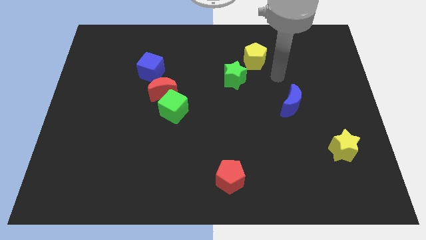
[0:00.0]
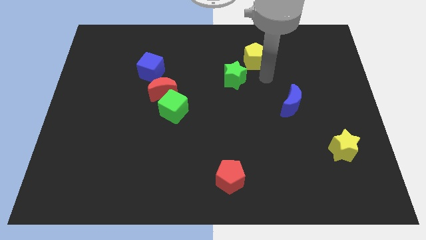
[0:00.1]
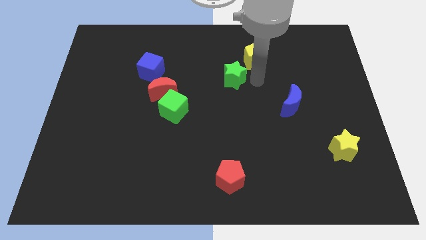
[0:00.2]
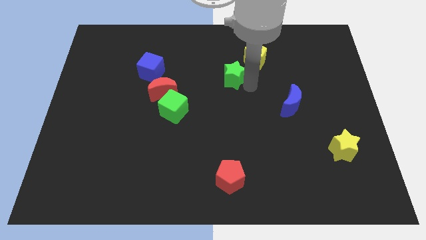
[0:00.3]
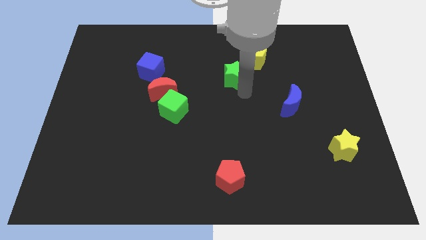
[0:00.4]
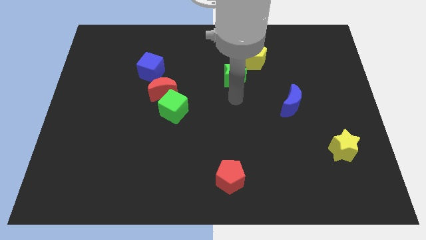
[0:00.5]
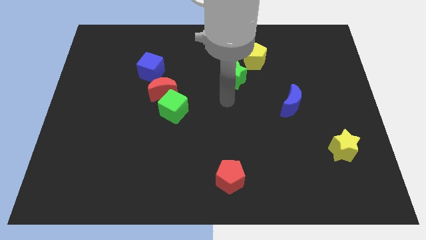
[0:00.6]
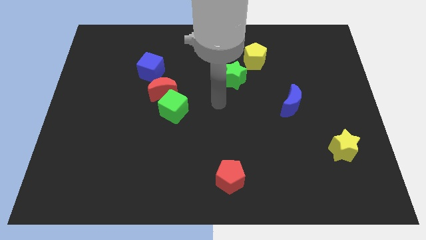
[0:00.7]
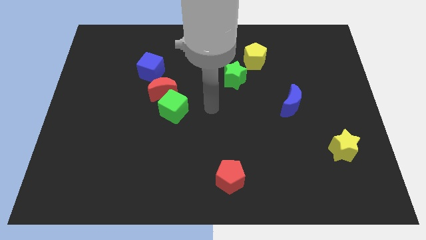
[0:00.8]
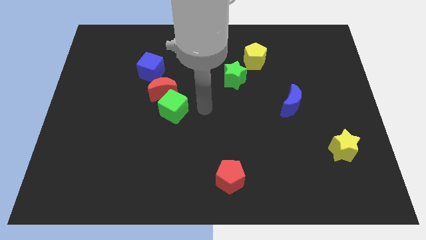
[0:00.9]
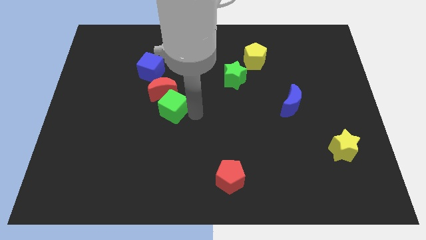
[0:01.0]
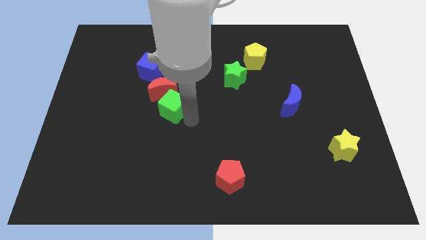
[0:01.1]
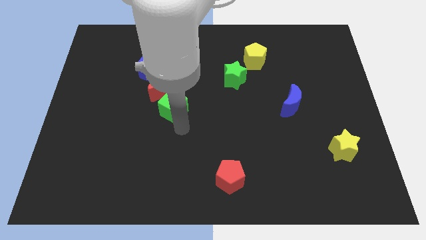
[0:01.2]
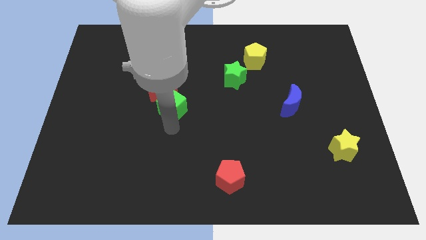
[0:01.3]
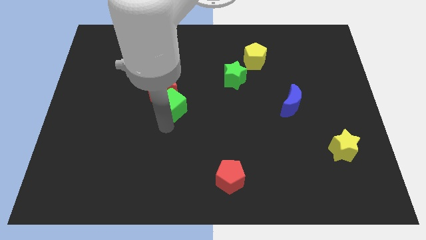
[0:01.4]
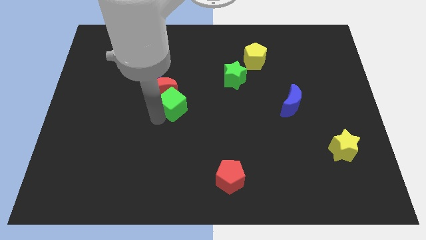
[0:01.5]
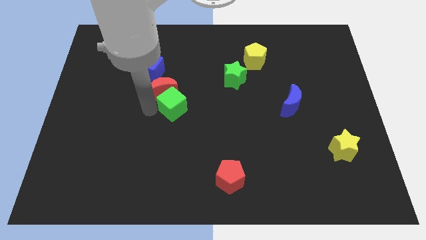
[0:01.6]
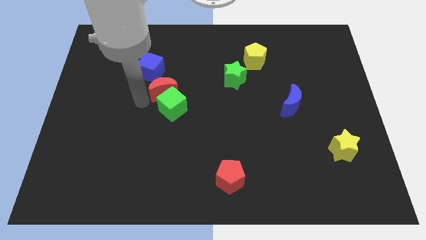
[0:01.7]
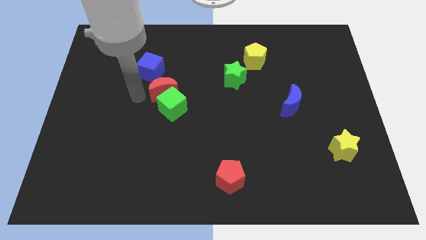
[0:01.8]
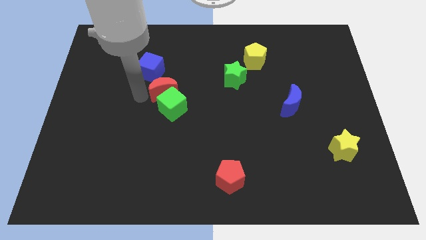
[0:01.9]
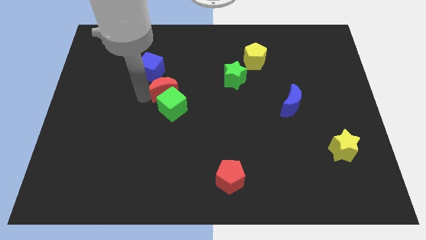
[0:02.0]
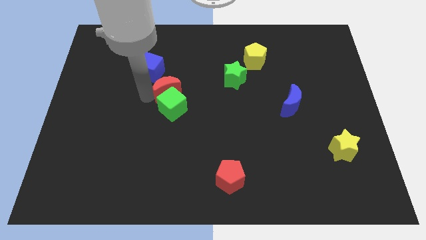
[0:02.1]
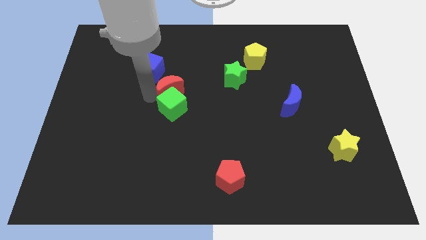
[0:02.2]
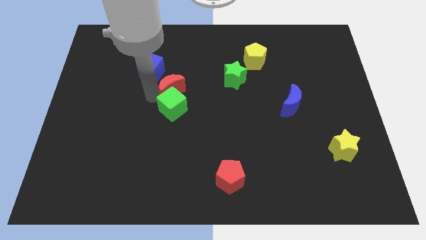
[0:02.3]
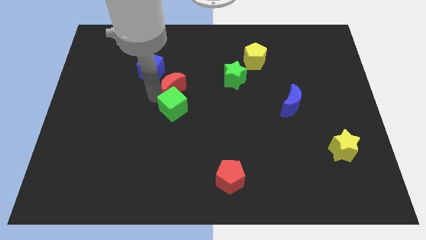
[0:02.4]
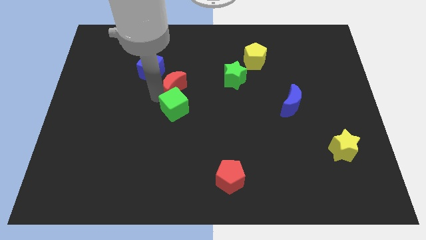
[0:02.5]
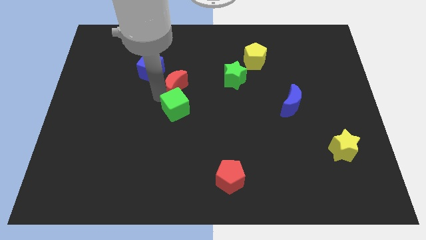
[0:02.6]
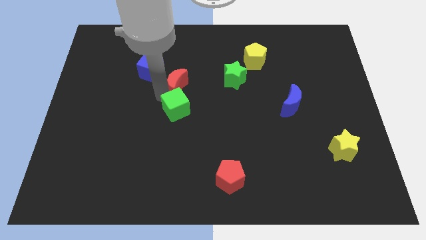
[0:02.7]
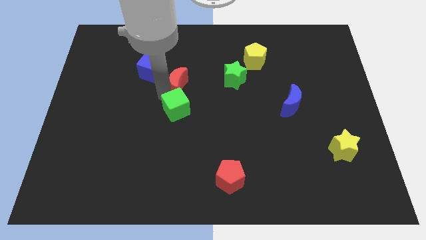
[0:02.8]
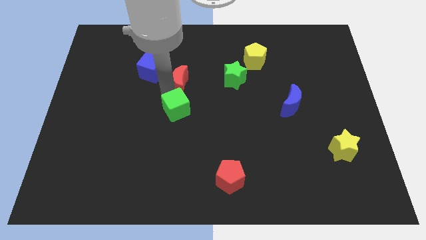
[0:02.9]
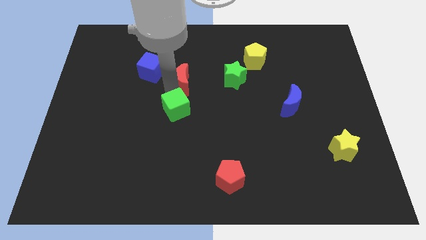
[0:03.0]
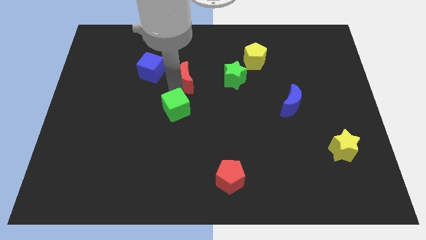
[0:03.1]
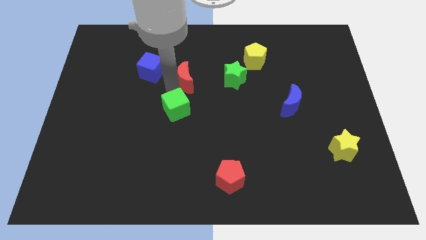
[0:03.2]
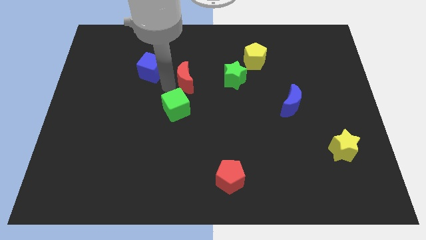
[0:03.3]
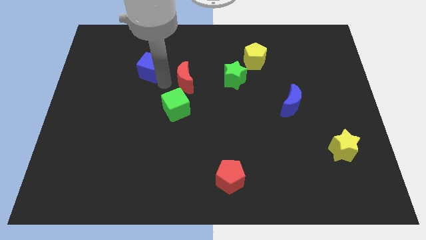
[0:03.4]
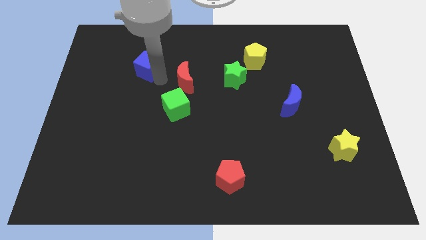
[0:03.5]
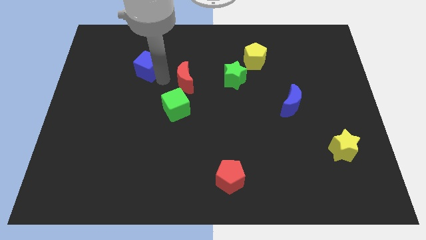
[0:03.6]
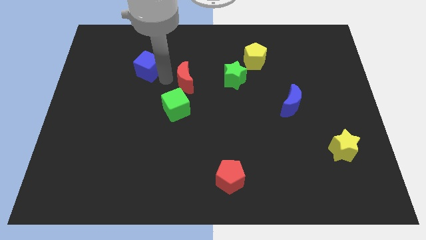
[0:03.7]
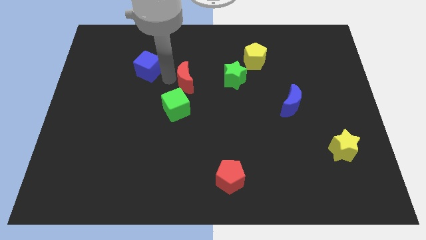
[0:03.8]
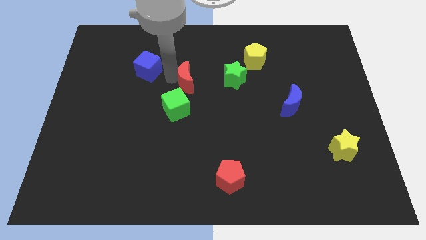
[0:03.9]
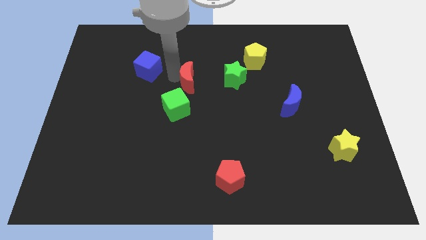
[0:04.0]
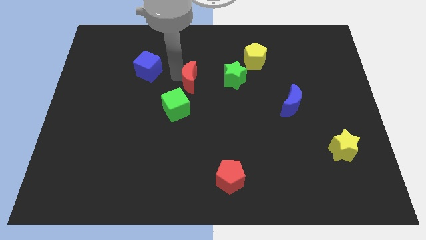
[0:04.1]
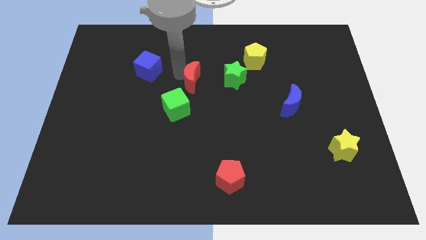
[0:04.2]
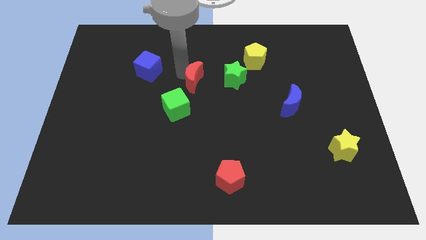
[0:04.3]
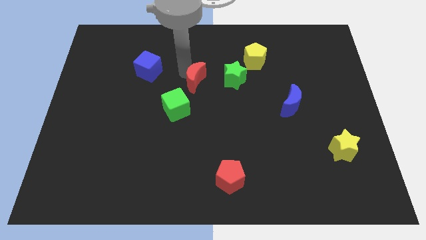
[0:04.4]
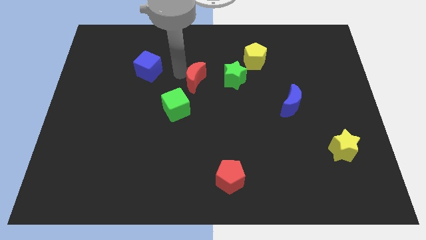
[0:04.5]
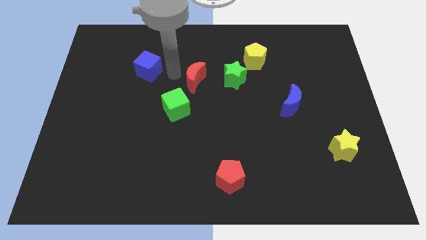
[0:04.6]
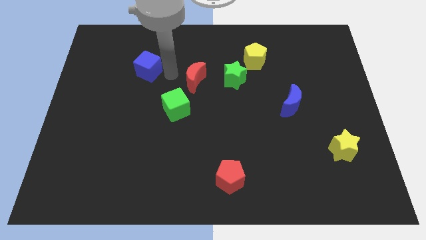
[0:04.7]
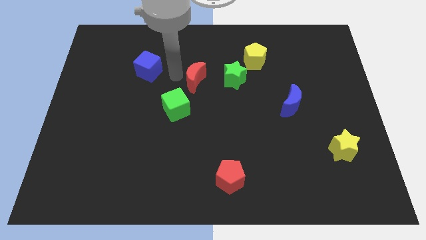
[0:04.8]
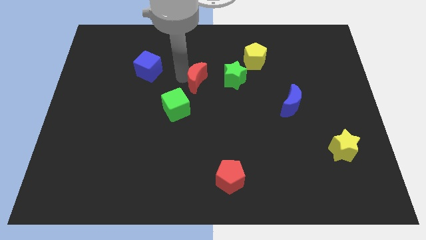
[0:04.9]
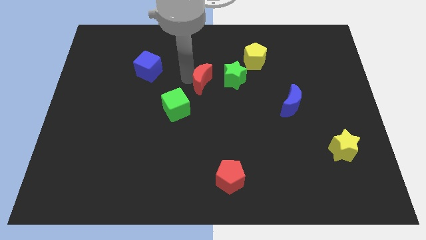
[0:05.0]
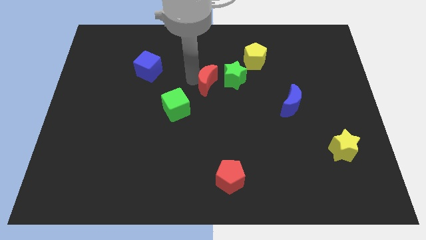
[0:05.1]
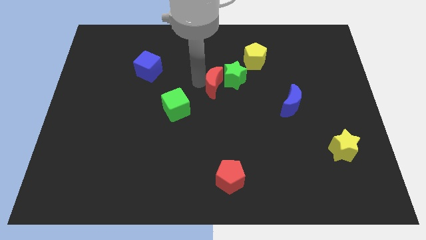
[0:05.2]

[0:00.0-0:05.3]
move the red moon to the green star

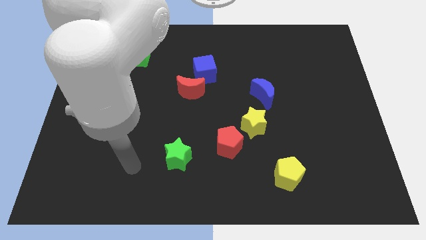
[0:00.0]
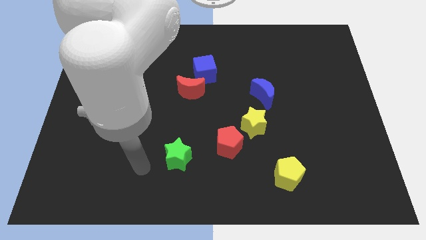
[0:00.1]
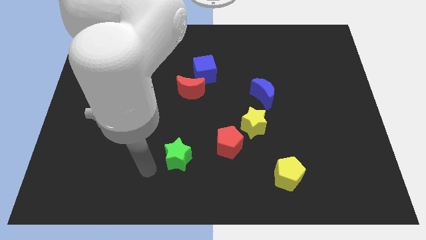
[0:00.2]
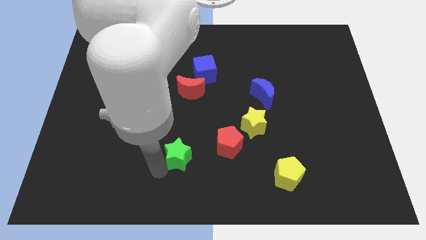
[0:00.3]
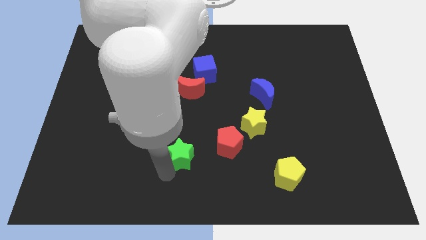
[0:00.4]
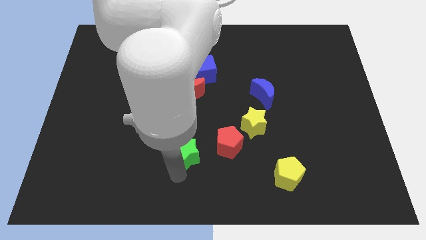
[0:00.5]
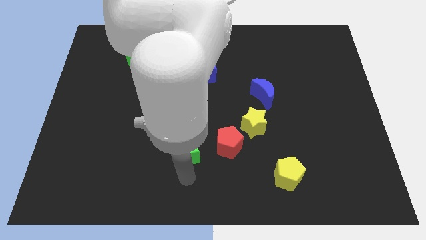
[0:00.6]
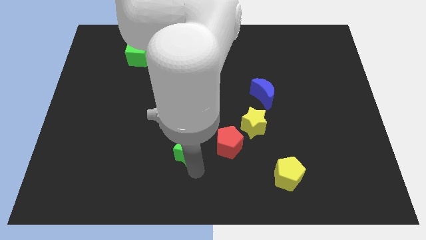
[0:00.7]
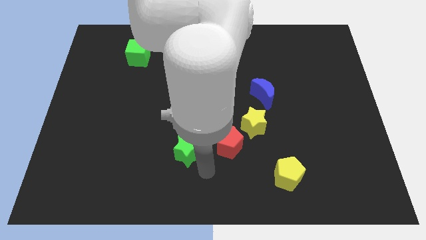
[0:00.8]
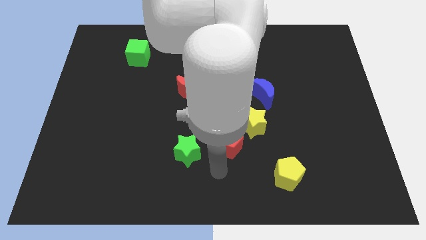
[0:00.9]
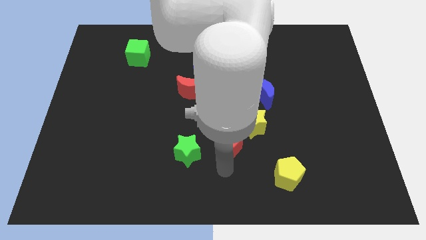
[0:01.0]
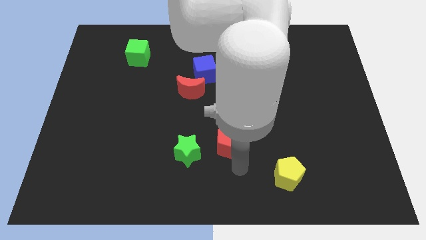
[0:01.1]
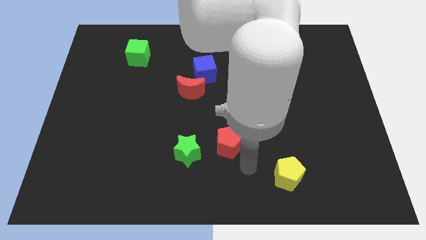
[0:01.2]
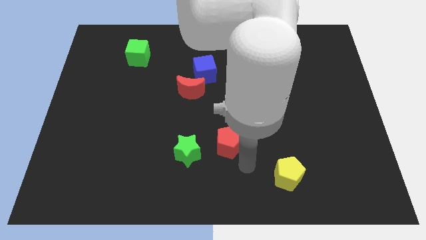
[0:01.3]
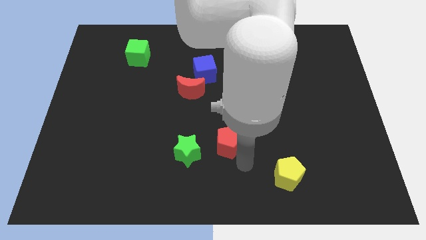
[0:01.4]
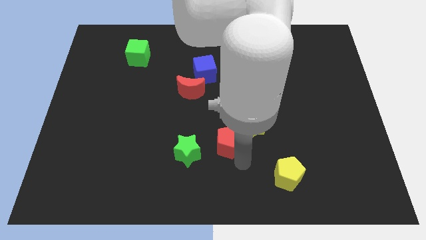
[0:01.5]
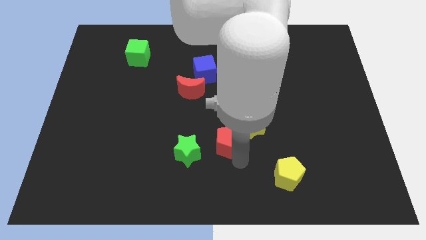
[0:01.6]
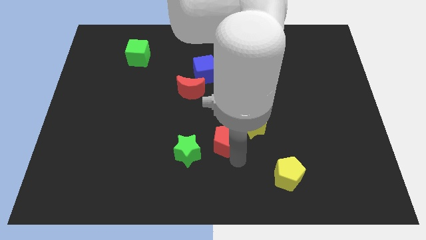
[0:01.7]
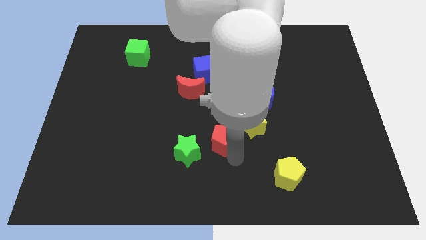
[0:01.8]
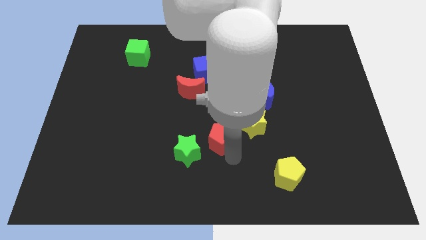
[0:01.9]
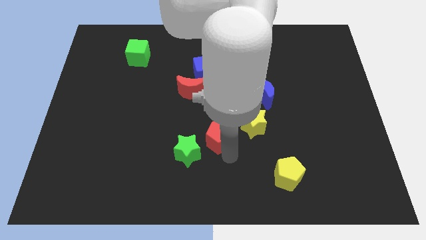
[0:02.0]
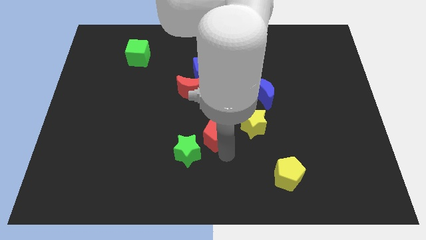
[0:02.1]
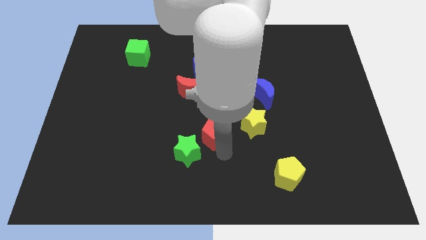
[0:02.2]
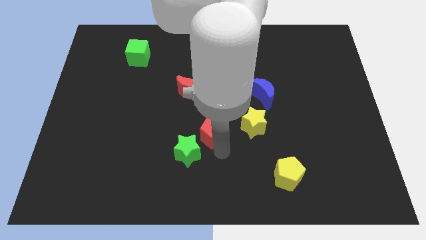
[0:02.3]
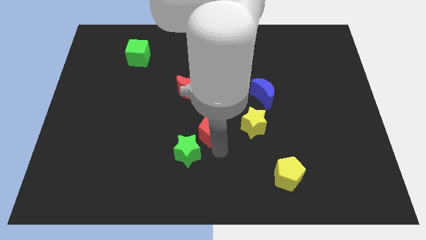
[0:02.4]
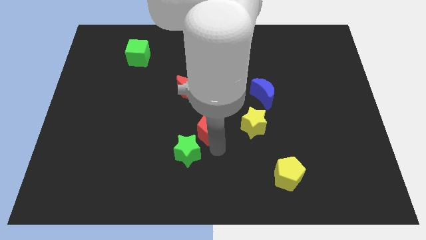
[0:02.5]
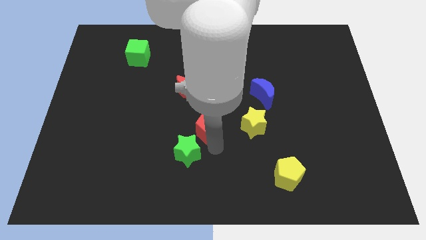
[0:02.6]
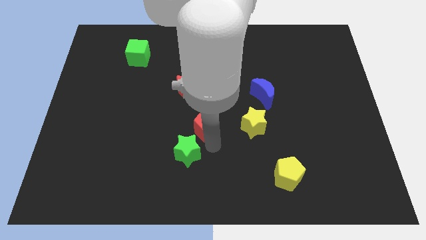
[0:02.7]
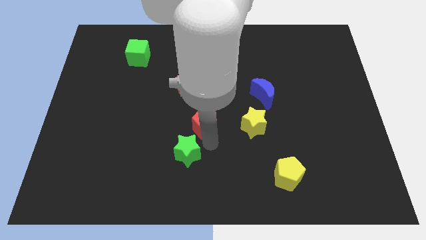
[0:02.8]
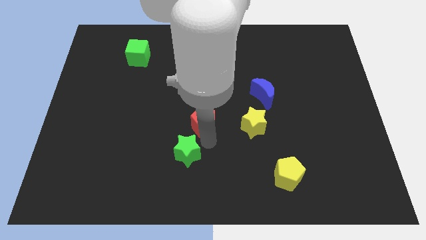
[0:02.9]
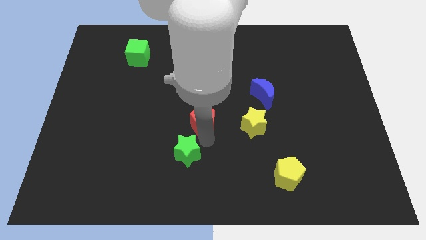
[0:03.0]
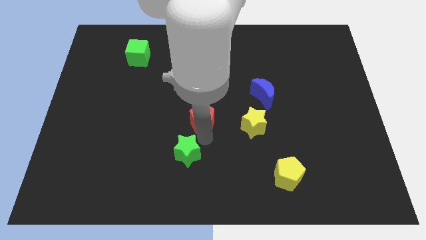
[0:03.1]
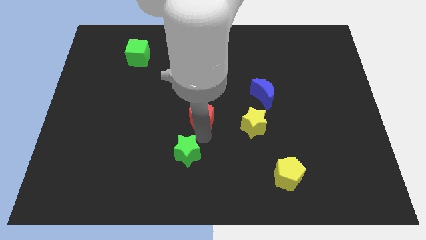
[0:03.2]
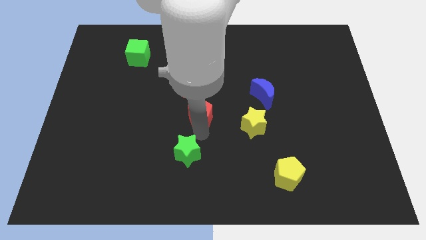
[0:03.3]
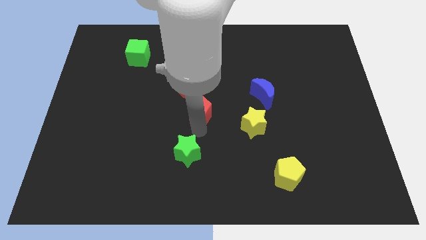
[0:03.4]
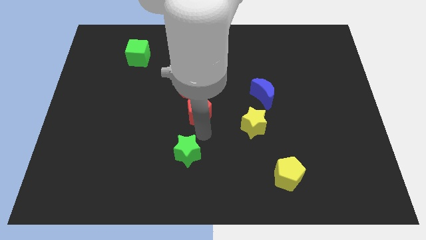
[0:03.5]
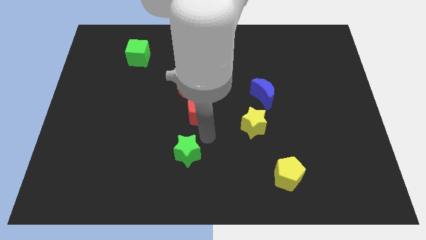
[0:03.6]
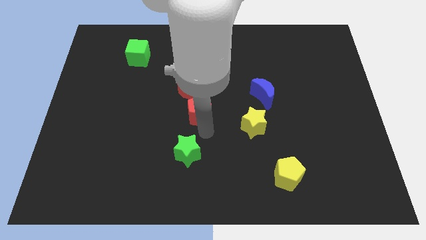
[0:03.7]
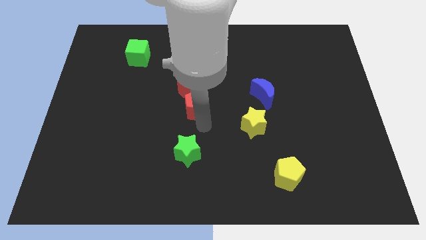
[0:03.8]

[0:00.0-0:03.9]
slide the red pentagon towards the red moon
